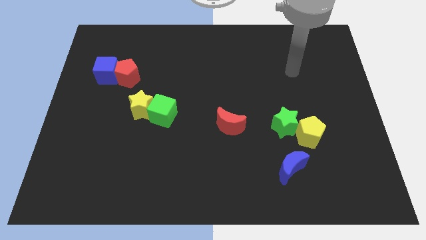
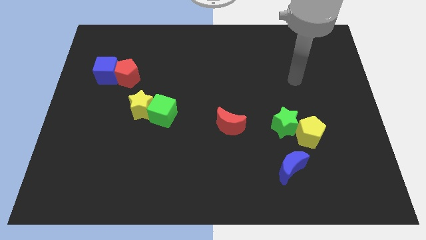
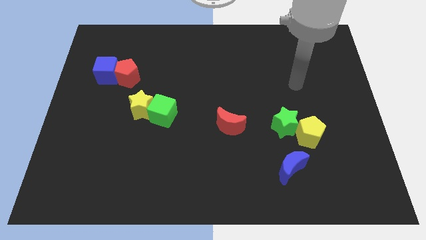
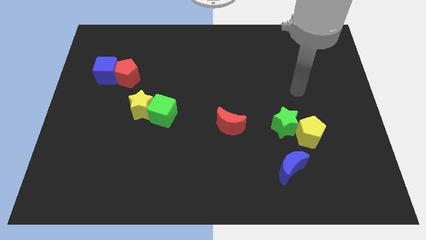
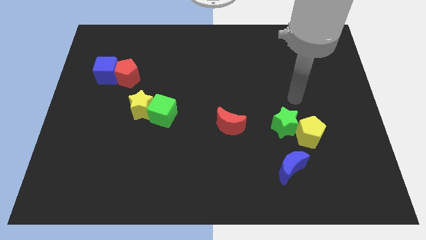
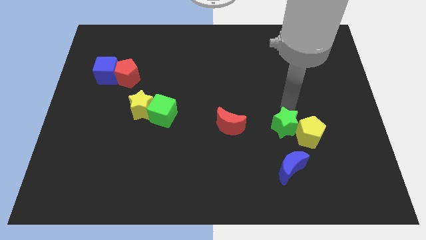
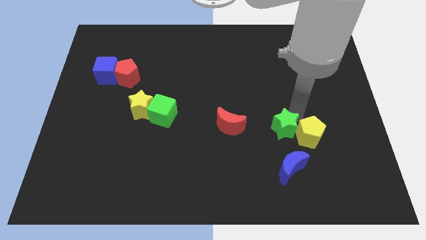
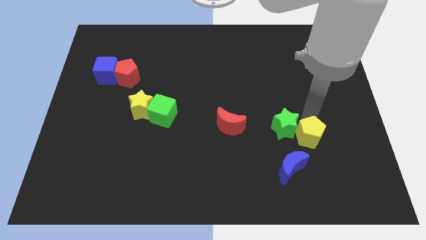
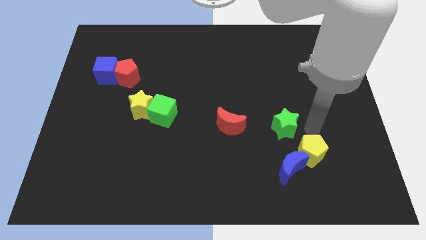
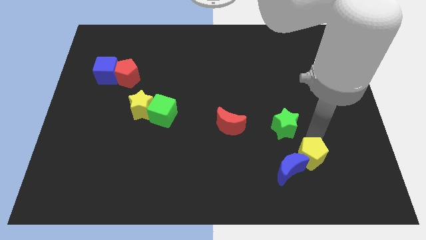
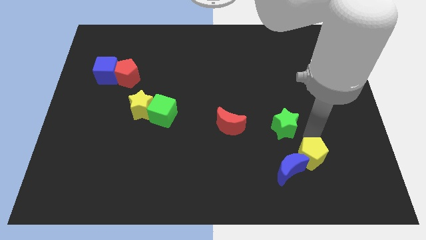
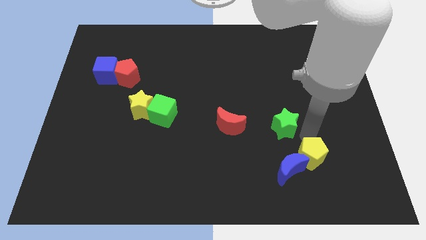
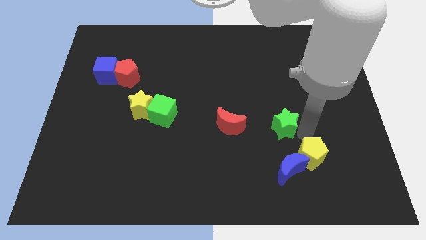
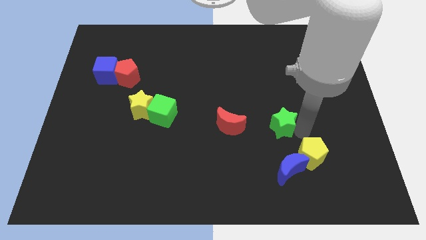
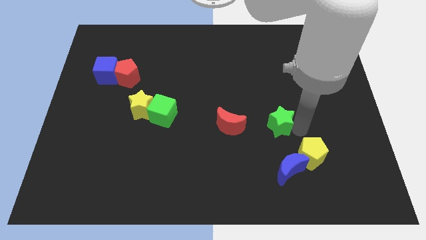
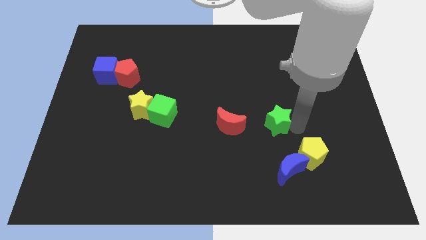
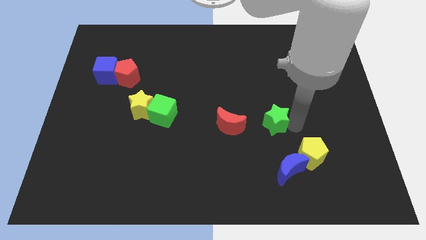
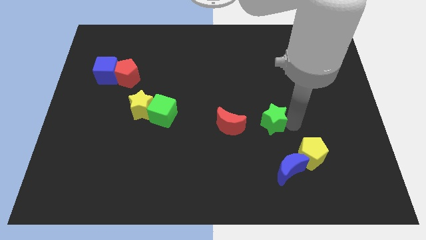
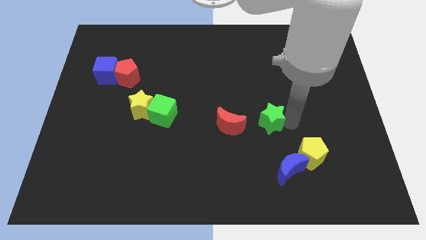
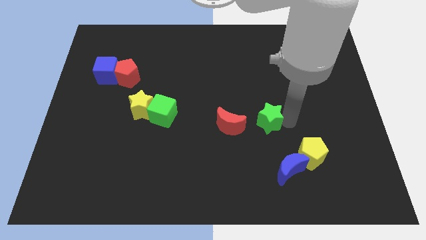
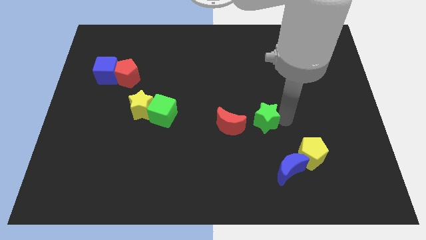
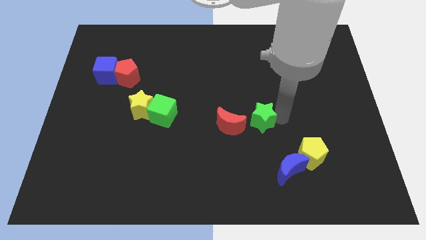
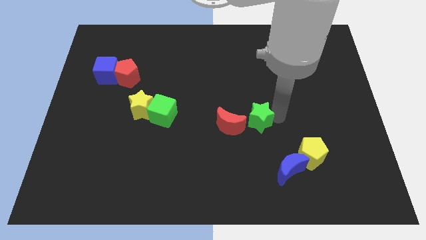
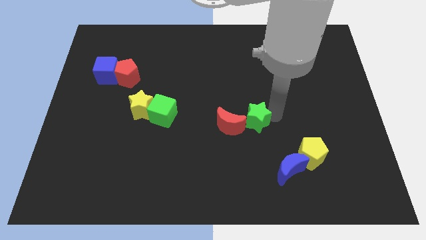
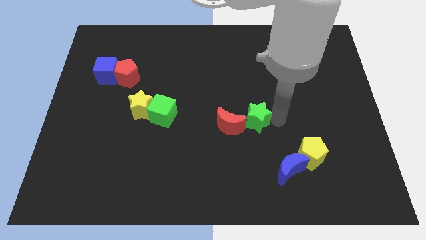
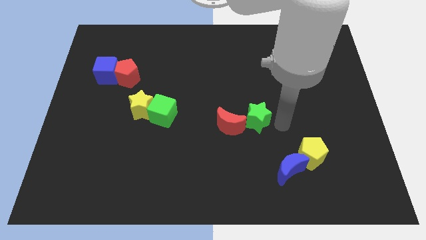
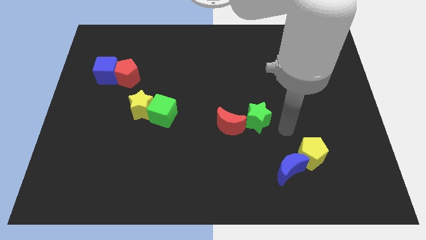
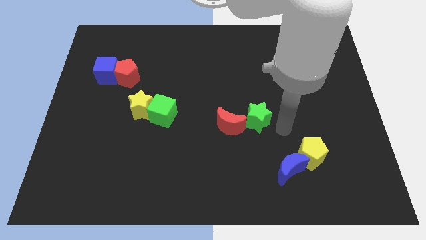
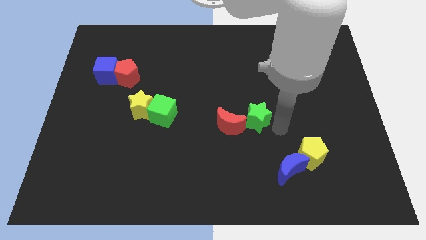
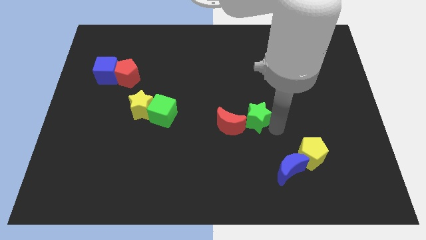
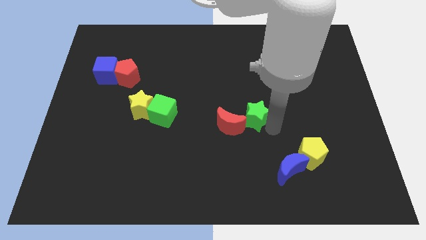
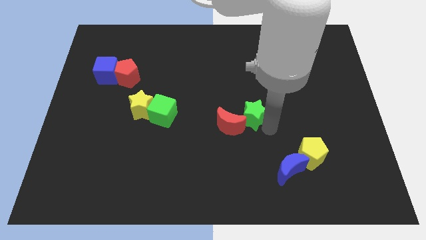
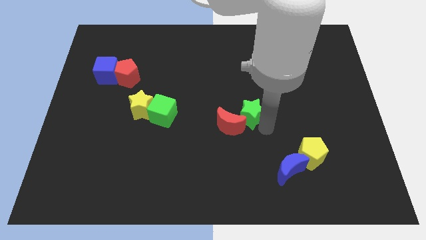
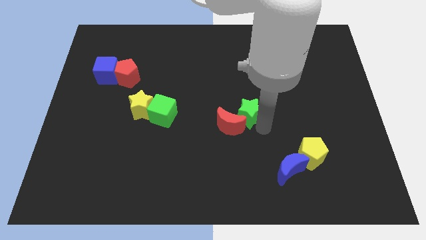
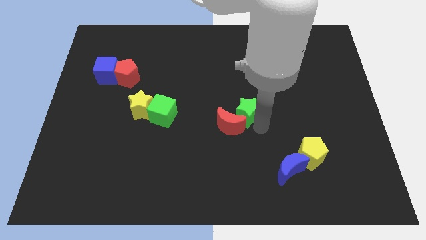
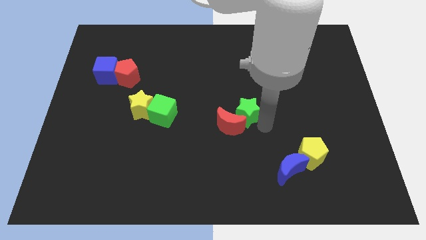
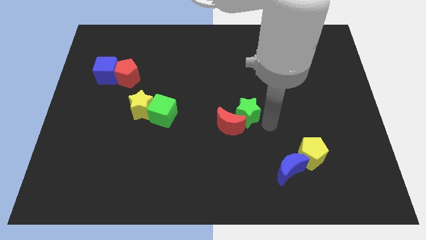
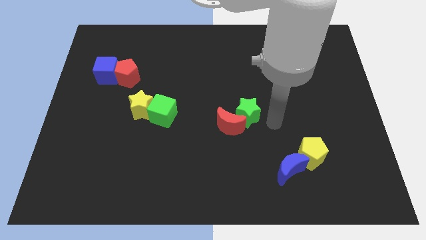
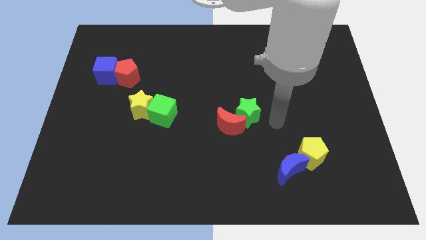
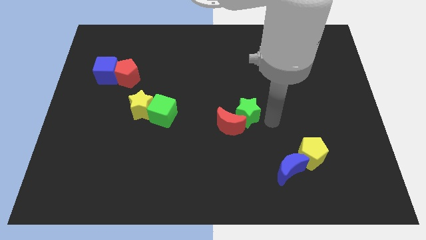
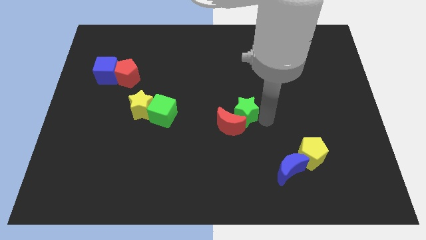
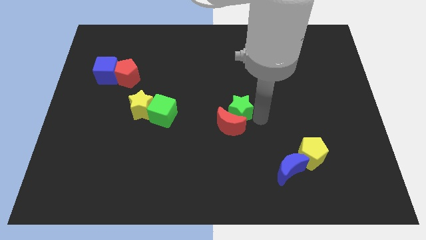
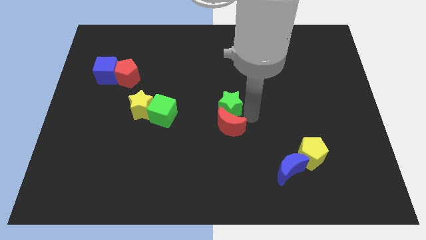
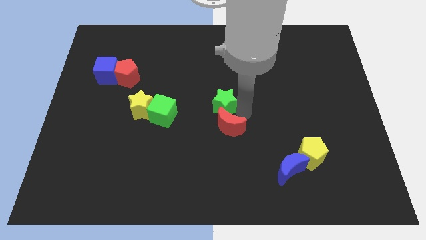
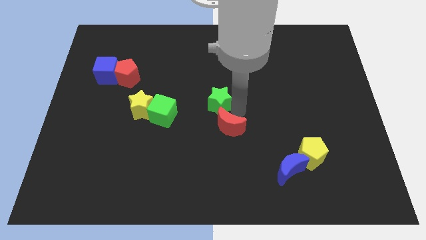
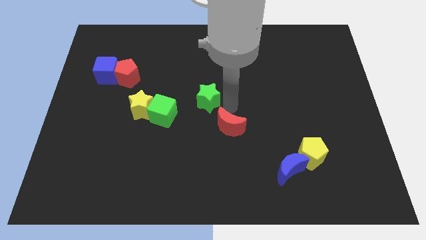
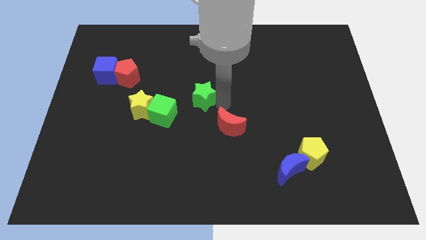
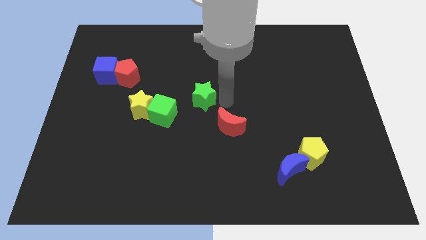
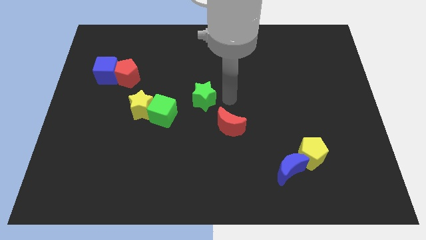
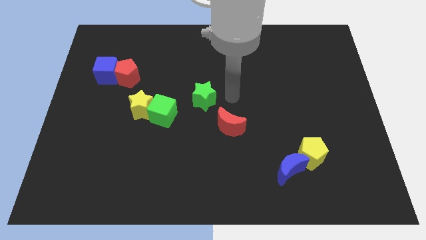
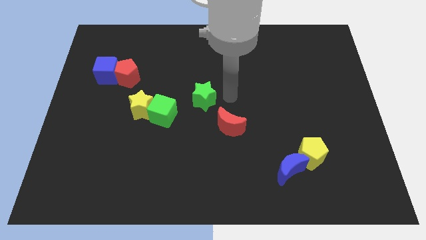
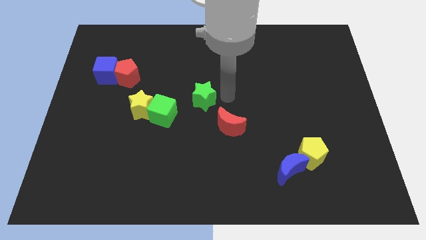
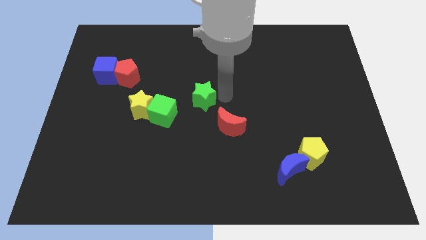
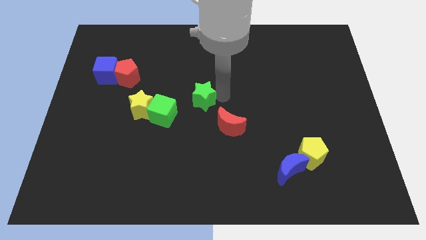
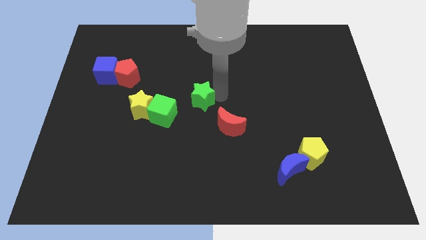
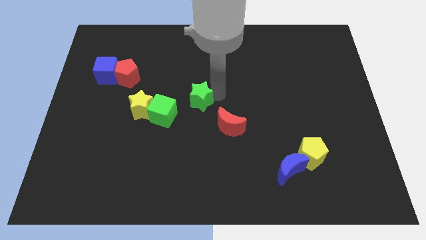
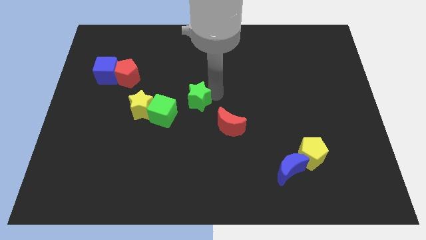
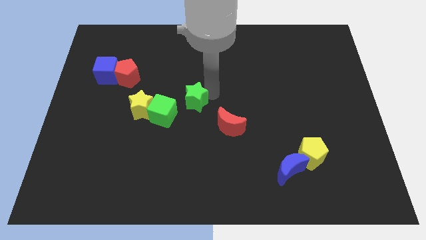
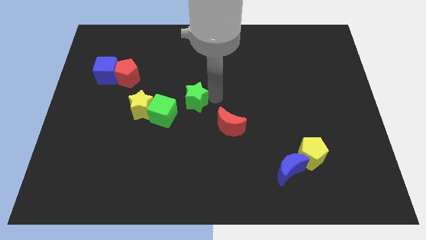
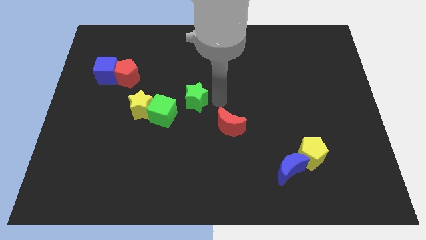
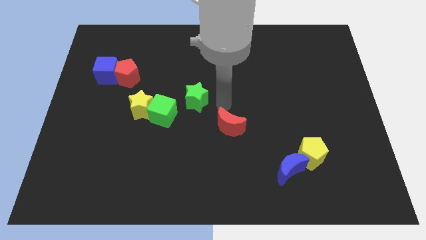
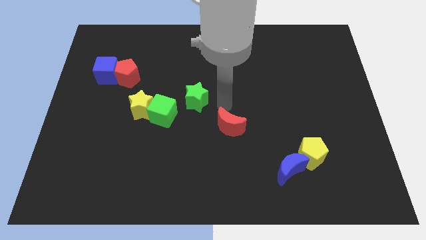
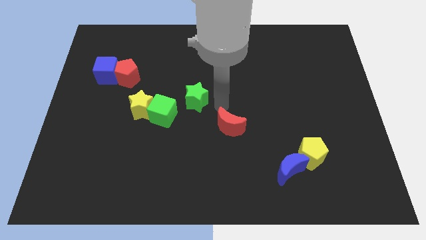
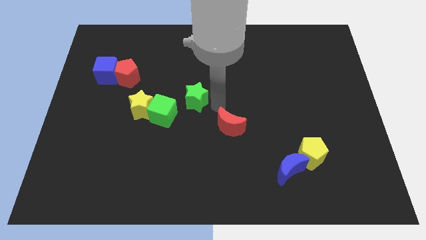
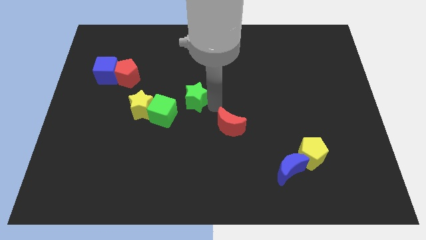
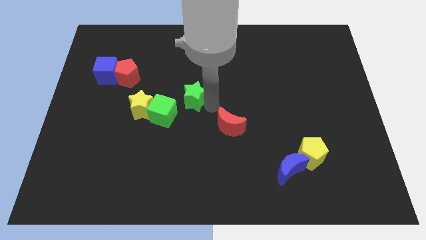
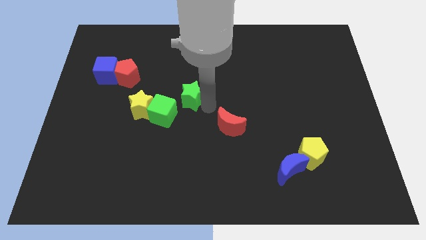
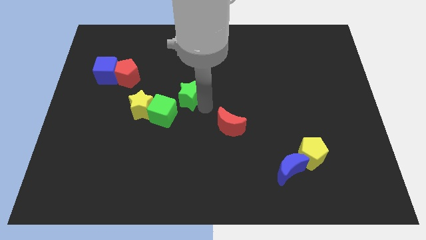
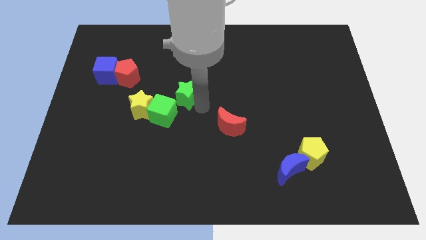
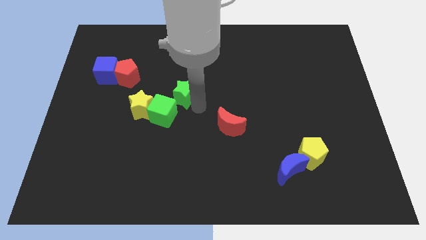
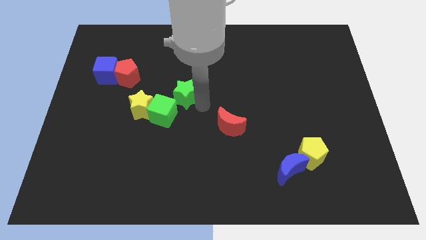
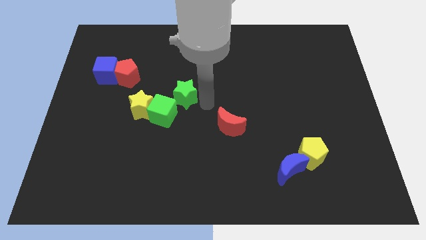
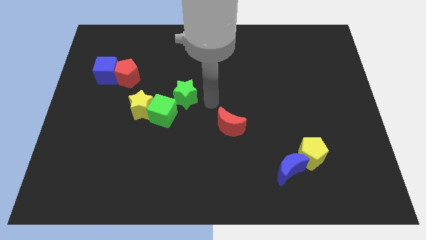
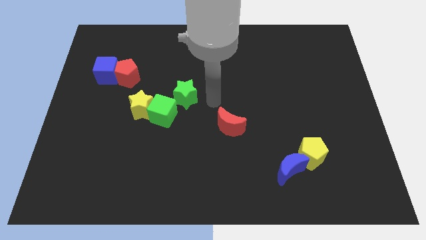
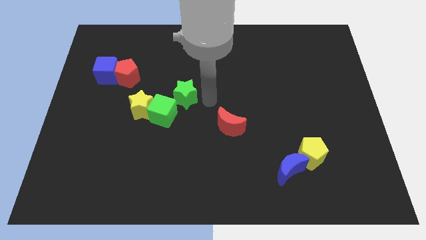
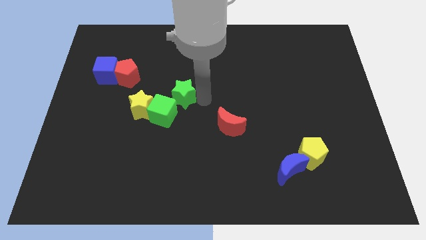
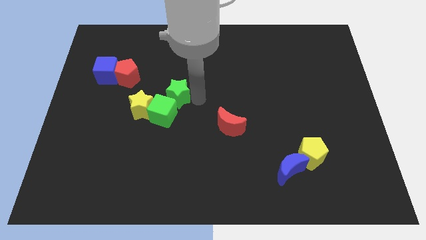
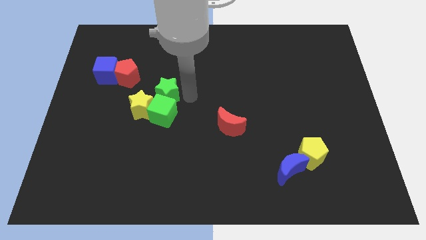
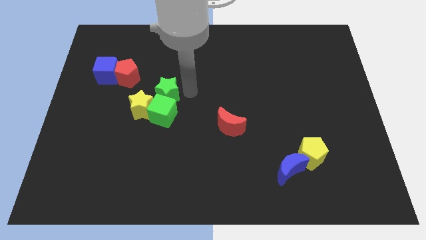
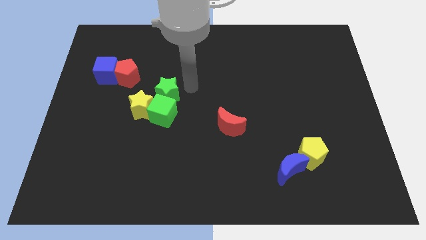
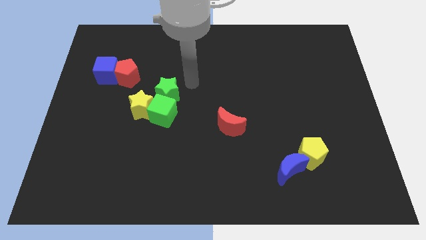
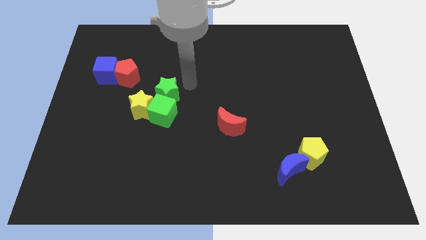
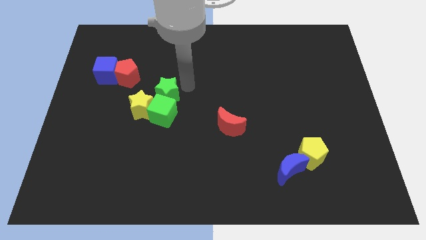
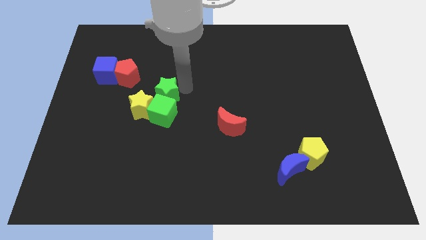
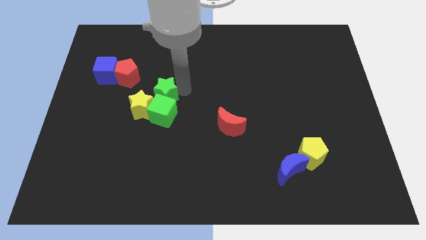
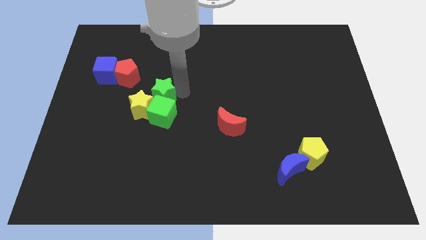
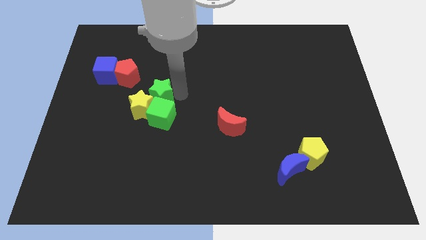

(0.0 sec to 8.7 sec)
push the green star close to the yellow star

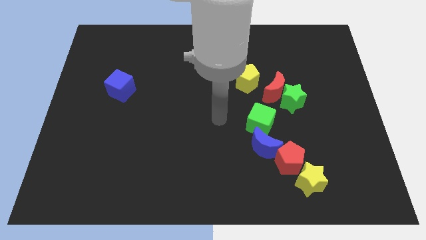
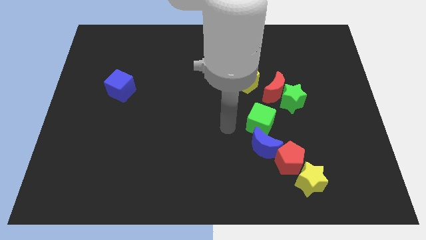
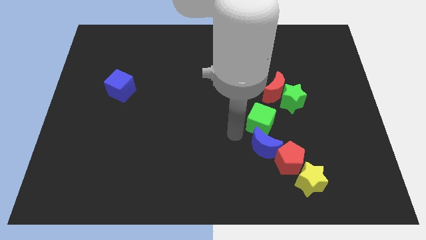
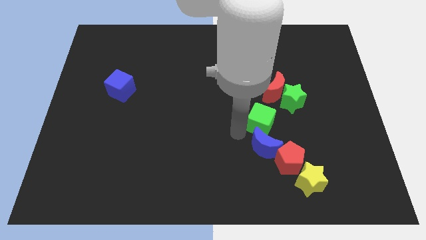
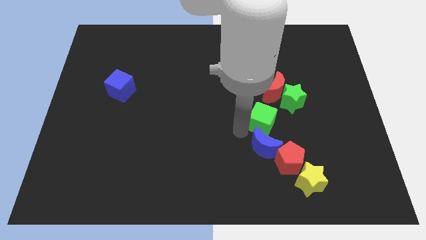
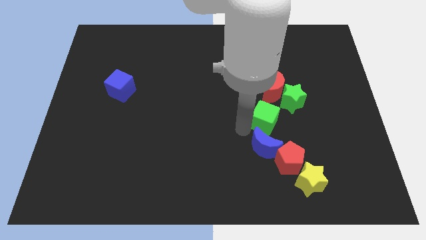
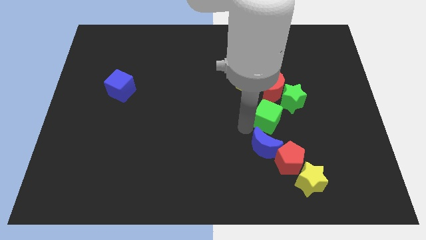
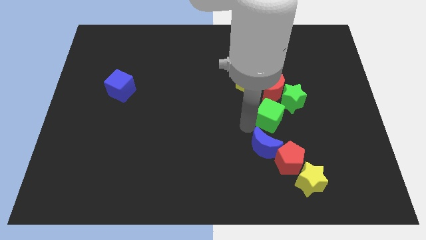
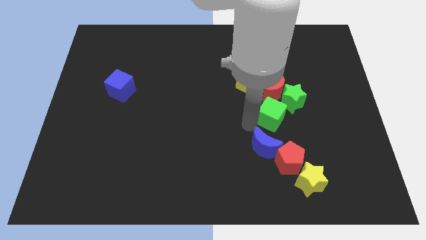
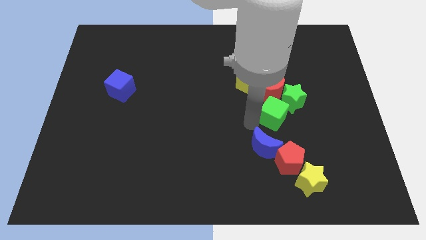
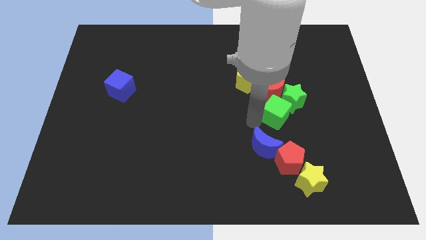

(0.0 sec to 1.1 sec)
move the green cube next to the green star
